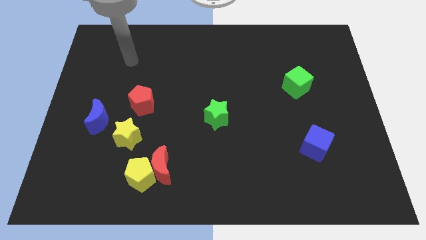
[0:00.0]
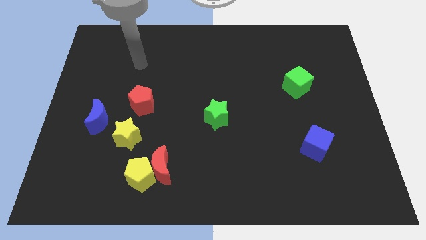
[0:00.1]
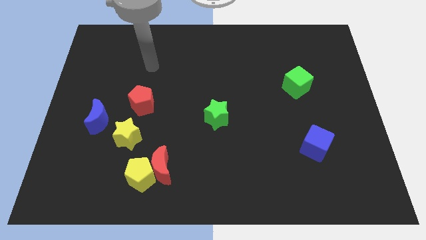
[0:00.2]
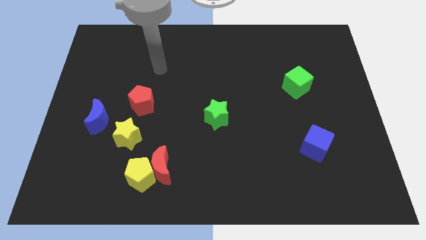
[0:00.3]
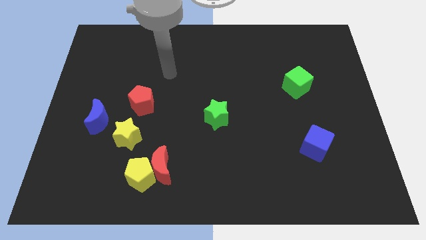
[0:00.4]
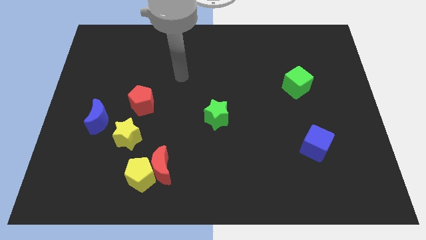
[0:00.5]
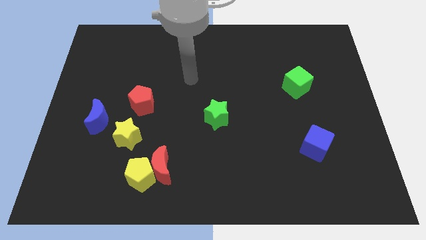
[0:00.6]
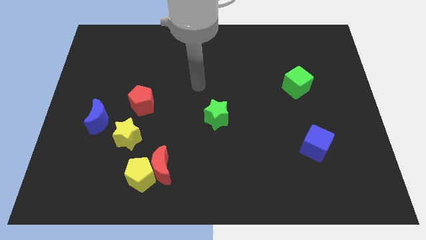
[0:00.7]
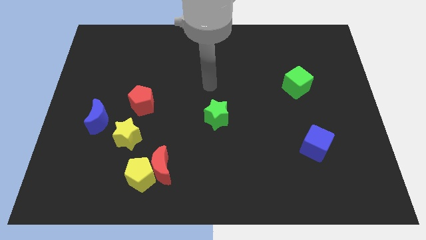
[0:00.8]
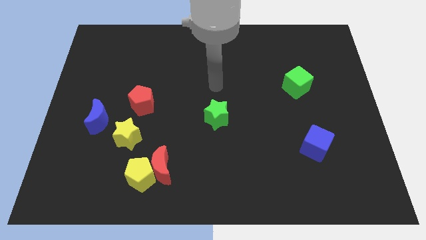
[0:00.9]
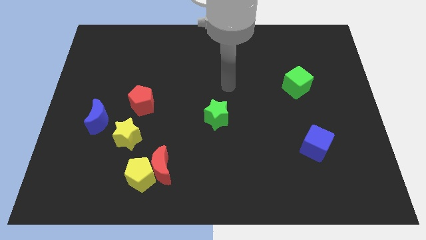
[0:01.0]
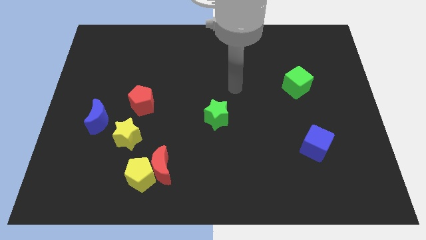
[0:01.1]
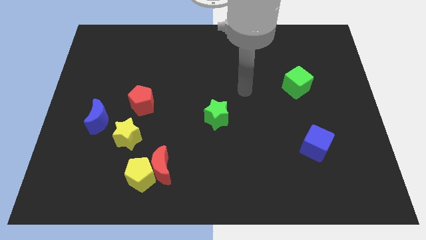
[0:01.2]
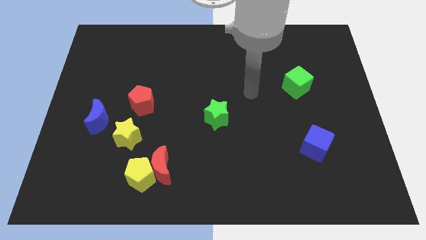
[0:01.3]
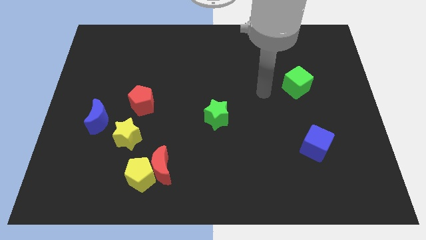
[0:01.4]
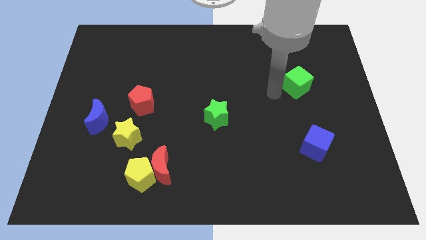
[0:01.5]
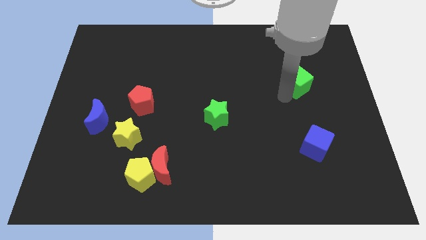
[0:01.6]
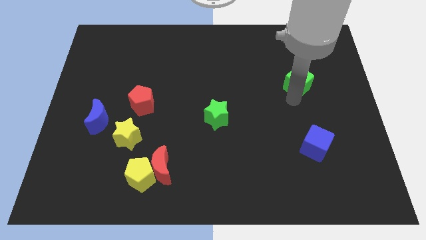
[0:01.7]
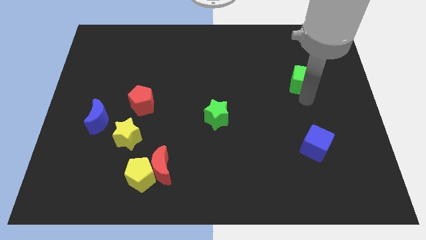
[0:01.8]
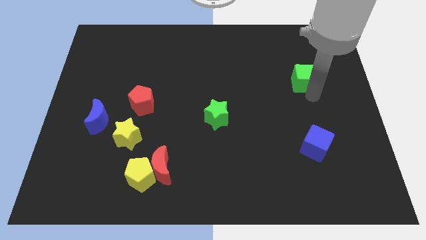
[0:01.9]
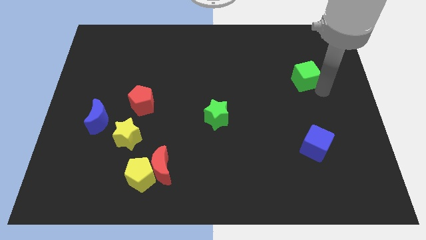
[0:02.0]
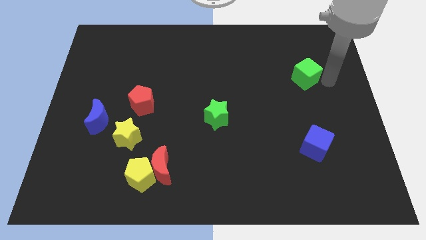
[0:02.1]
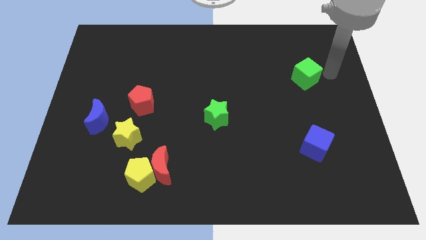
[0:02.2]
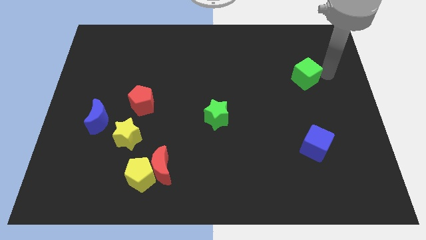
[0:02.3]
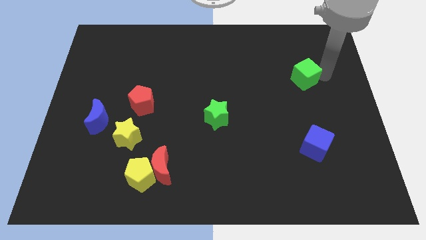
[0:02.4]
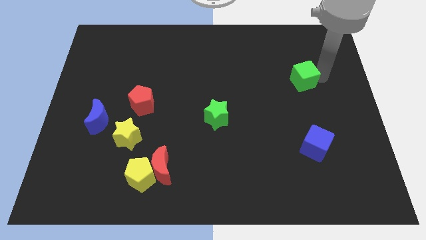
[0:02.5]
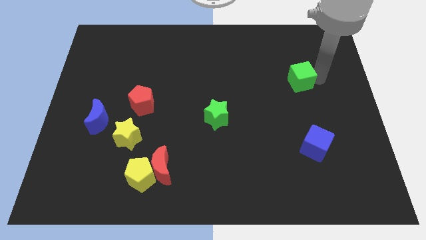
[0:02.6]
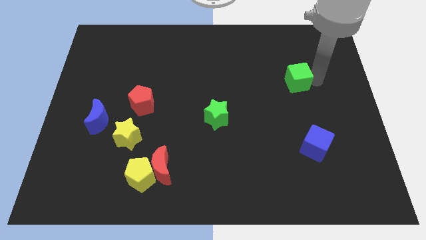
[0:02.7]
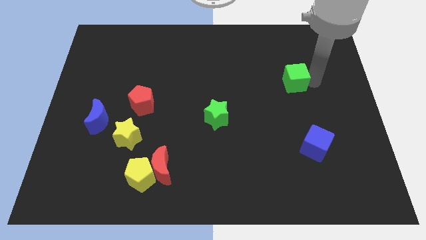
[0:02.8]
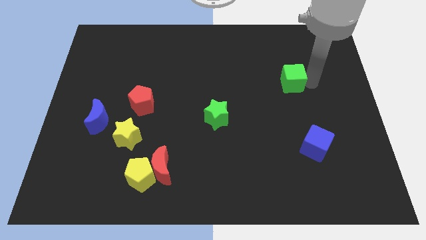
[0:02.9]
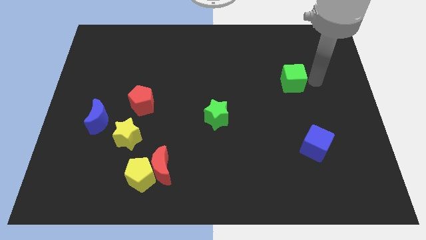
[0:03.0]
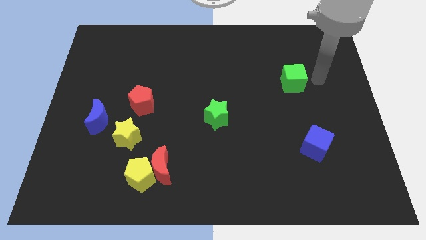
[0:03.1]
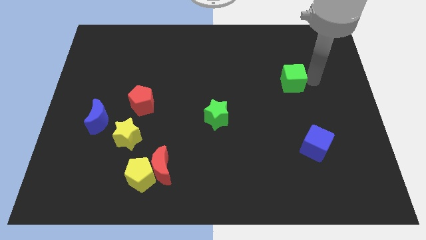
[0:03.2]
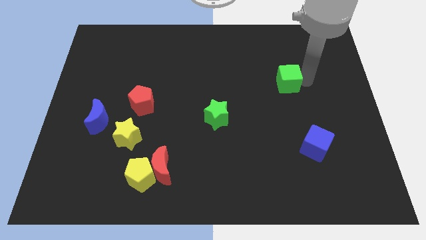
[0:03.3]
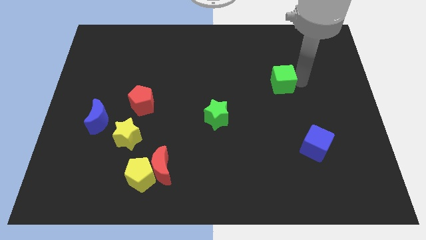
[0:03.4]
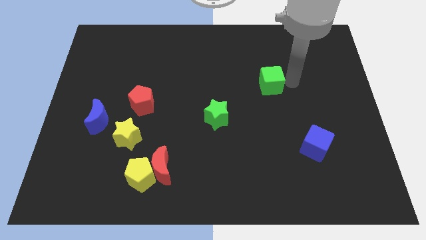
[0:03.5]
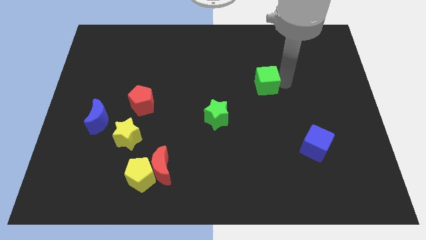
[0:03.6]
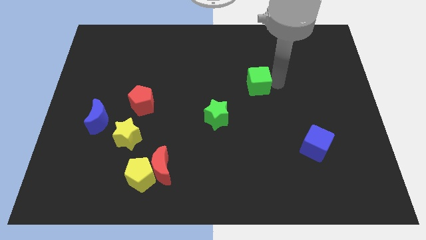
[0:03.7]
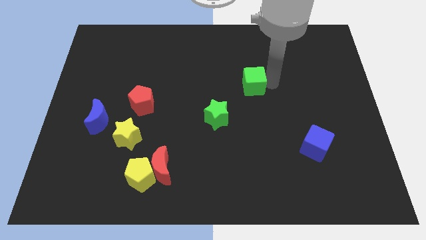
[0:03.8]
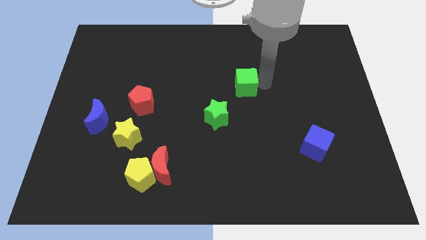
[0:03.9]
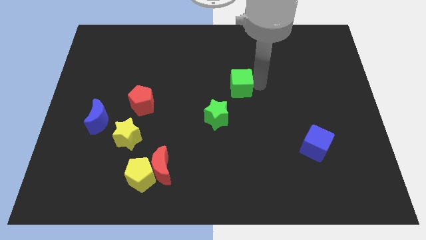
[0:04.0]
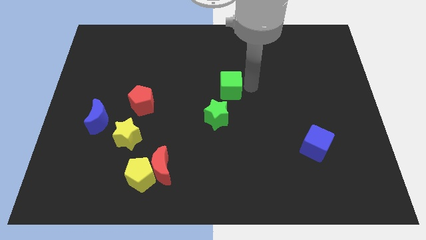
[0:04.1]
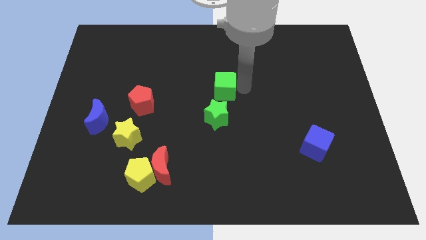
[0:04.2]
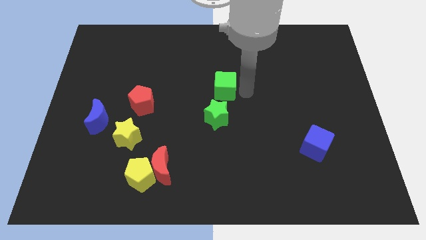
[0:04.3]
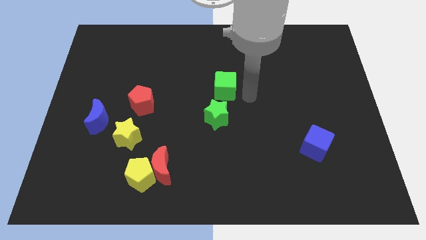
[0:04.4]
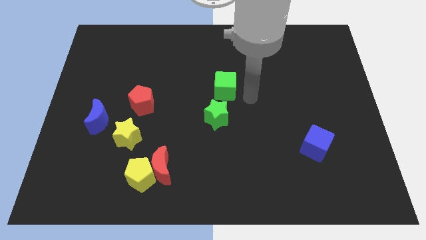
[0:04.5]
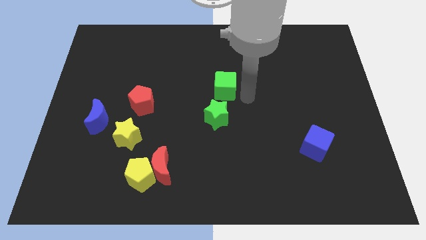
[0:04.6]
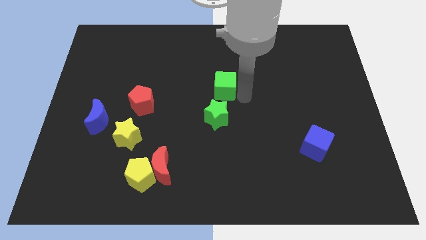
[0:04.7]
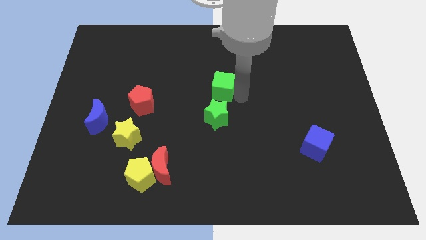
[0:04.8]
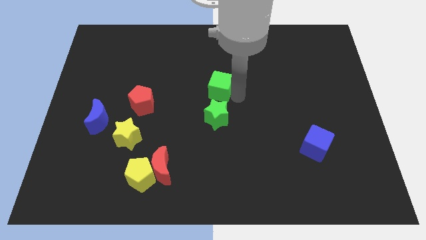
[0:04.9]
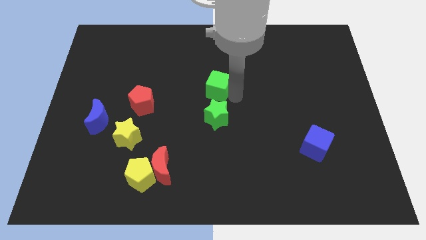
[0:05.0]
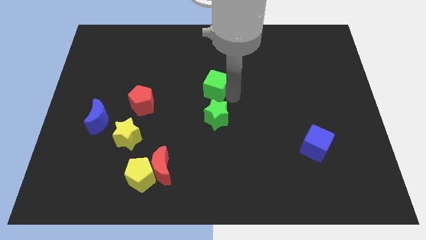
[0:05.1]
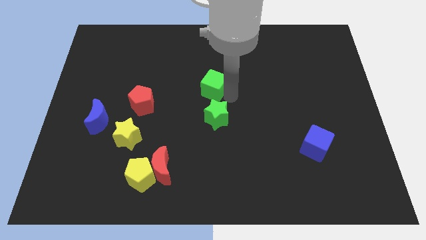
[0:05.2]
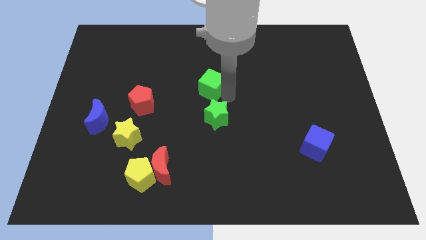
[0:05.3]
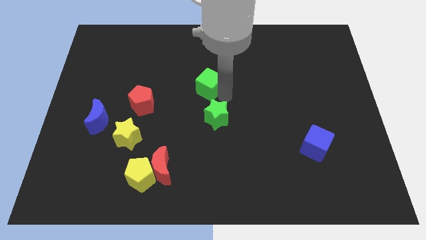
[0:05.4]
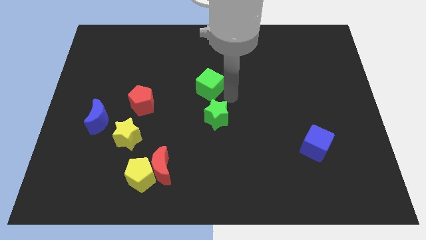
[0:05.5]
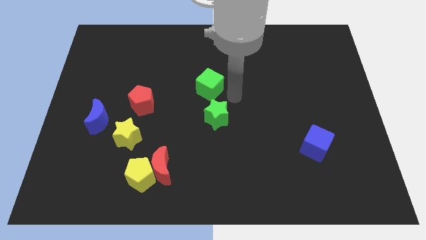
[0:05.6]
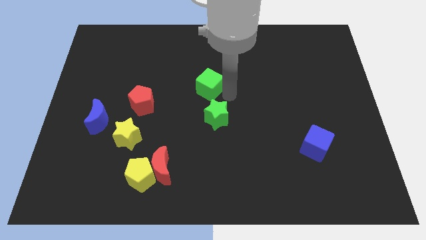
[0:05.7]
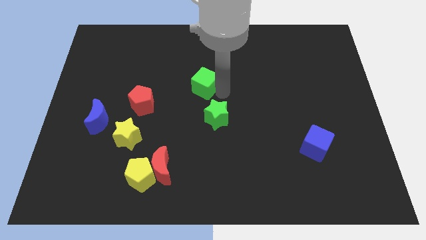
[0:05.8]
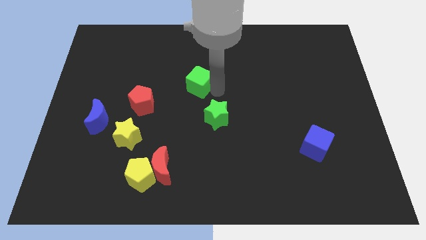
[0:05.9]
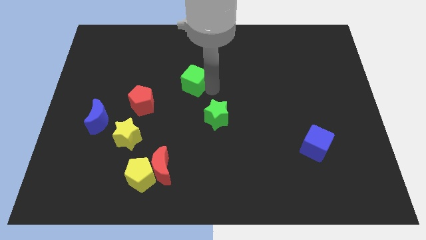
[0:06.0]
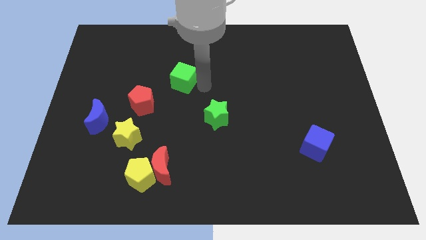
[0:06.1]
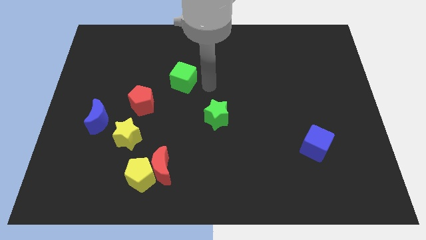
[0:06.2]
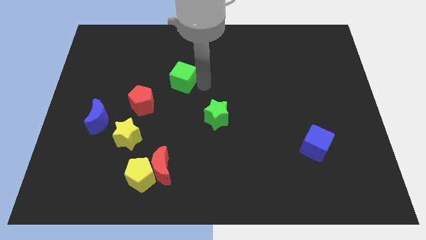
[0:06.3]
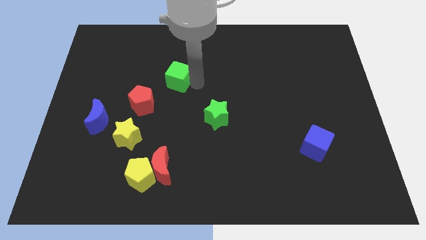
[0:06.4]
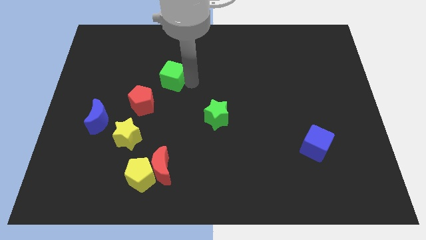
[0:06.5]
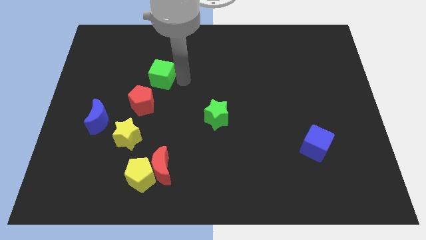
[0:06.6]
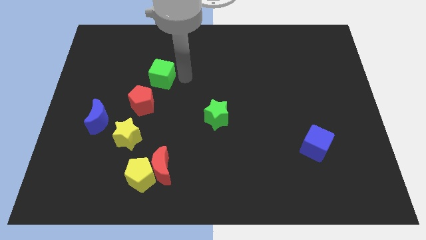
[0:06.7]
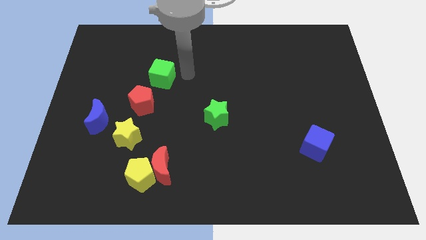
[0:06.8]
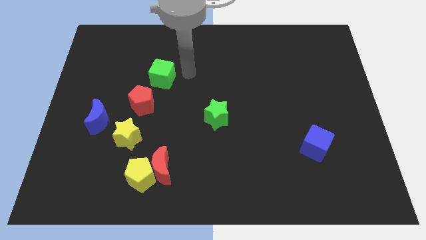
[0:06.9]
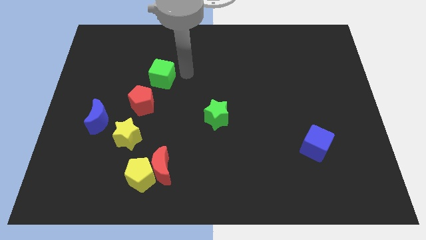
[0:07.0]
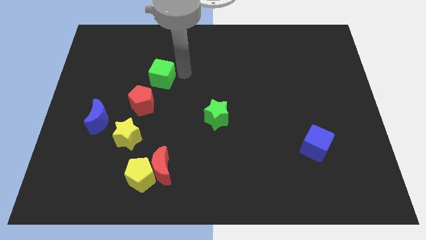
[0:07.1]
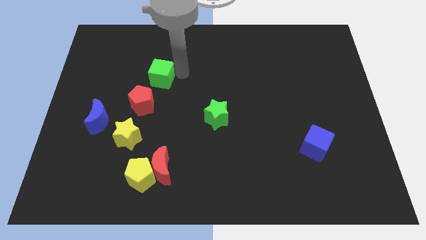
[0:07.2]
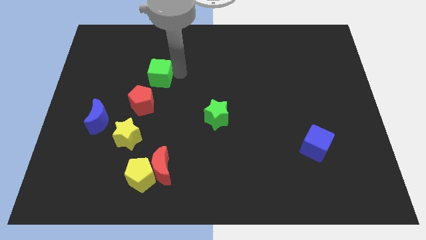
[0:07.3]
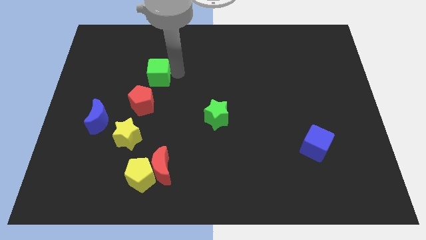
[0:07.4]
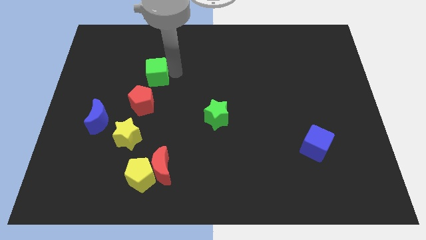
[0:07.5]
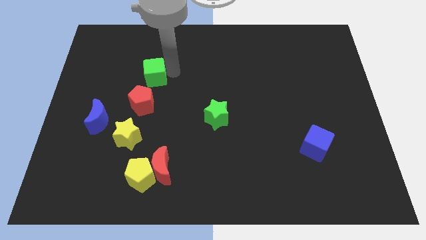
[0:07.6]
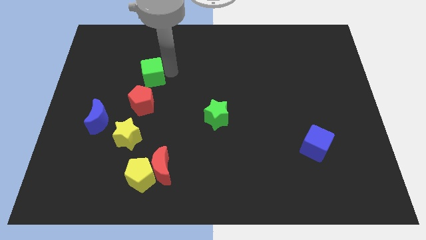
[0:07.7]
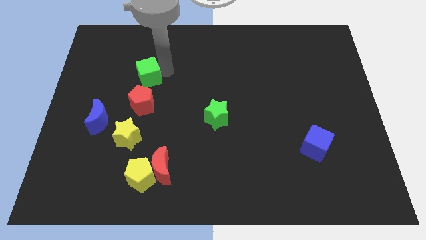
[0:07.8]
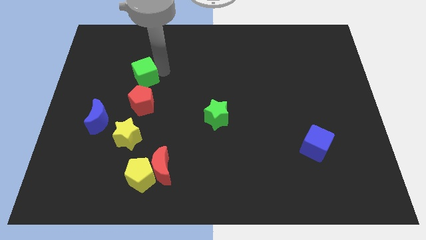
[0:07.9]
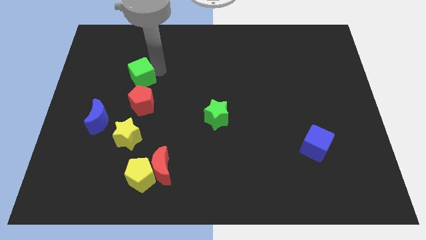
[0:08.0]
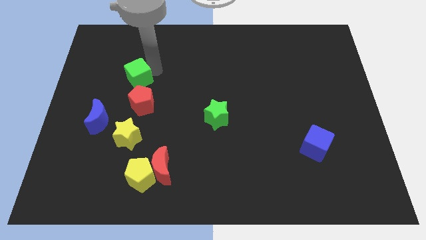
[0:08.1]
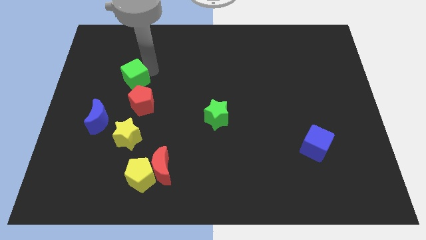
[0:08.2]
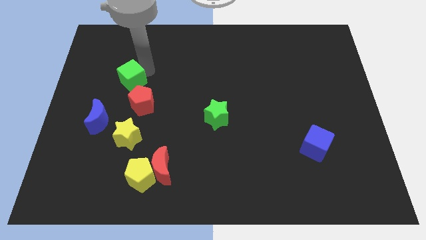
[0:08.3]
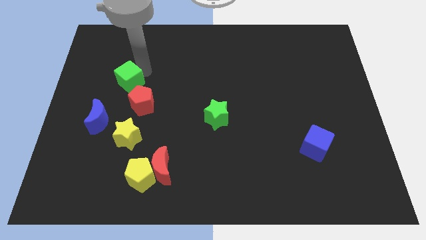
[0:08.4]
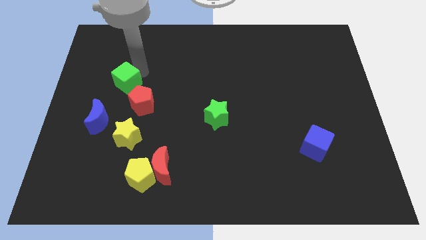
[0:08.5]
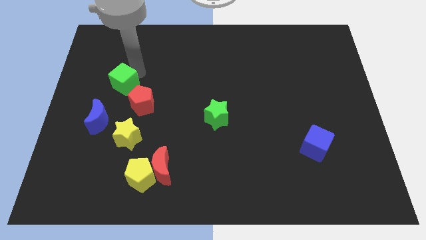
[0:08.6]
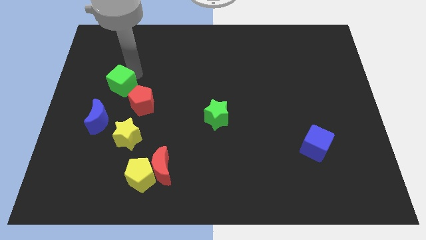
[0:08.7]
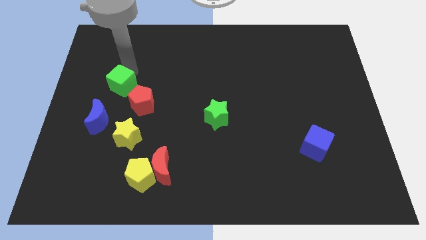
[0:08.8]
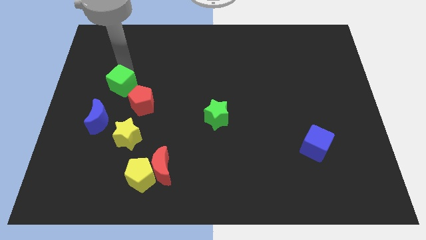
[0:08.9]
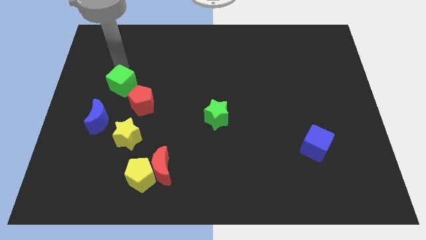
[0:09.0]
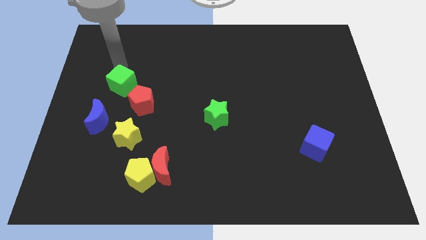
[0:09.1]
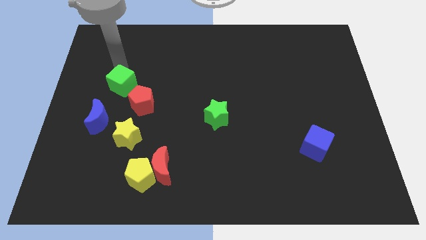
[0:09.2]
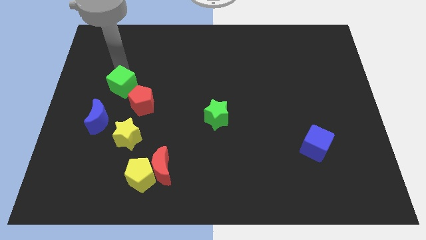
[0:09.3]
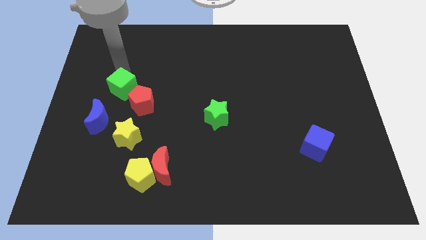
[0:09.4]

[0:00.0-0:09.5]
put the green cube to the top right side of the blue moon
